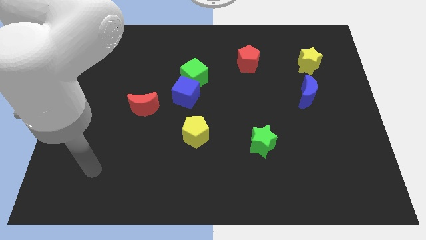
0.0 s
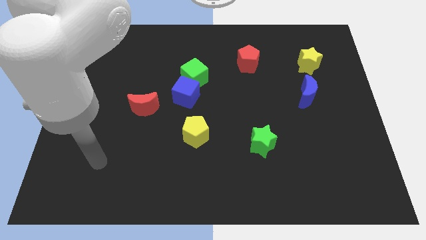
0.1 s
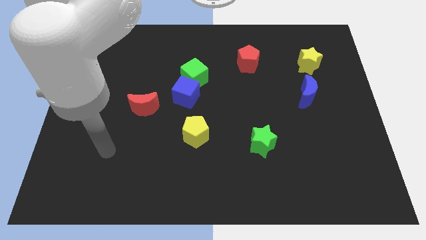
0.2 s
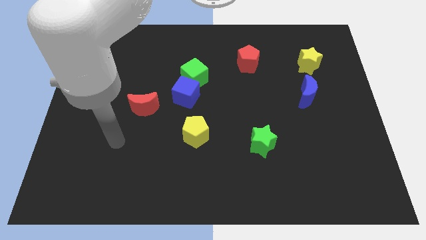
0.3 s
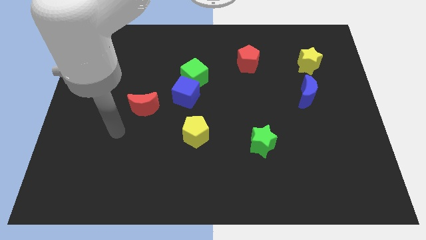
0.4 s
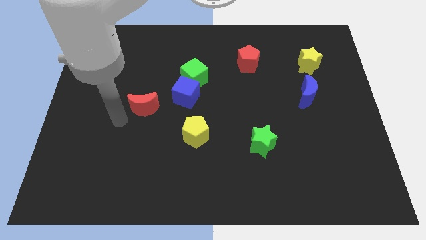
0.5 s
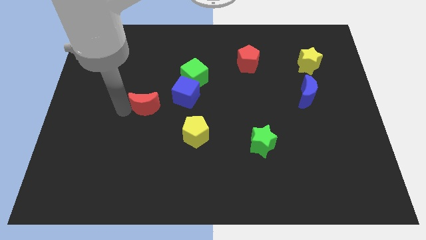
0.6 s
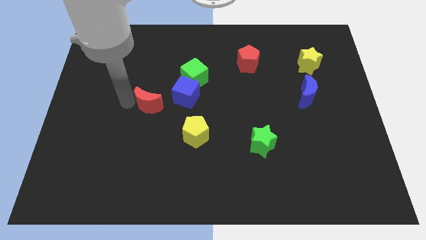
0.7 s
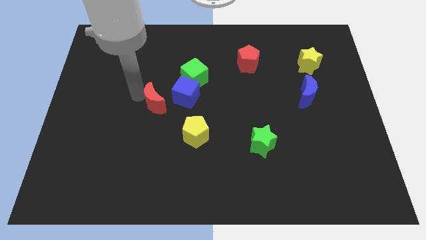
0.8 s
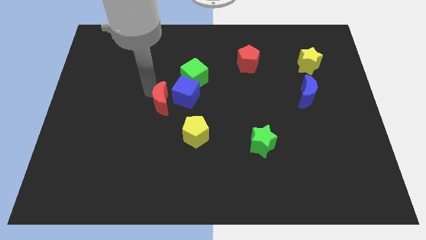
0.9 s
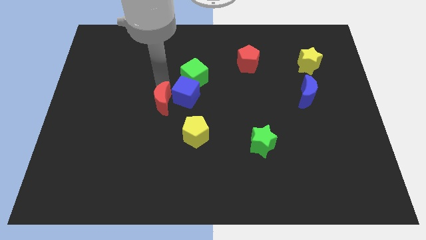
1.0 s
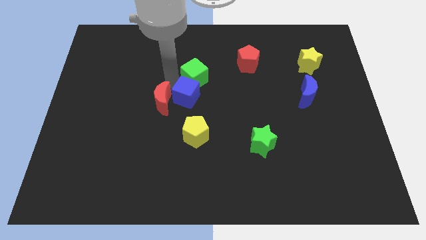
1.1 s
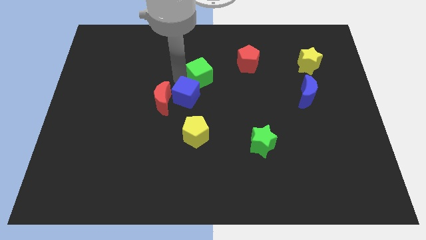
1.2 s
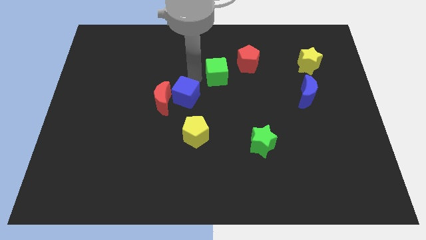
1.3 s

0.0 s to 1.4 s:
separate the blue cube from the green cube

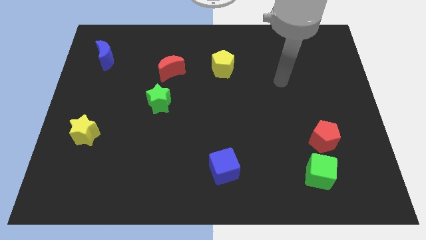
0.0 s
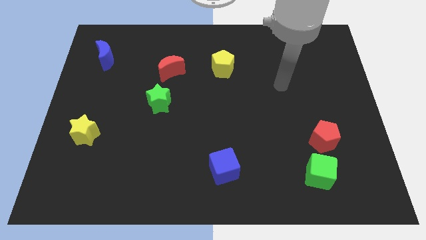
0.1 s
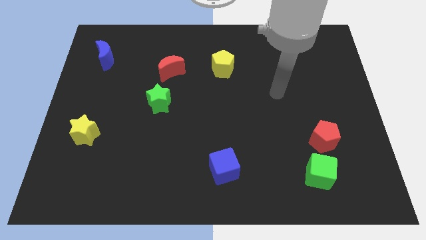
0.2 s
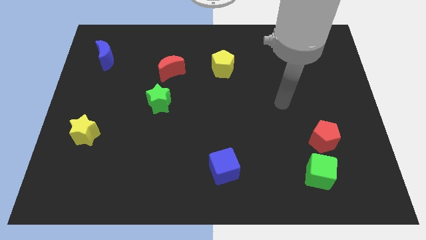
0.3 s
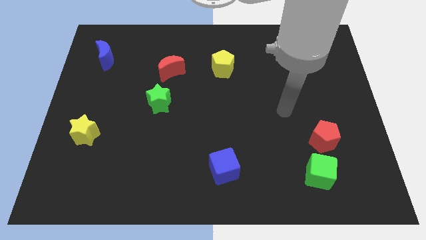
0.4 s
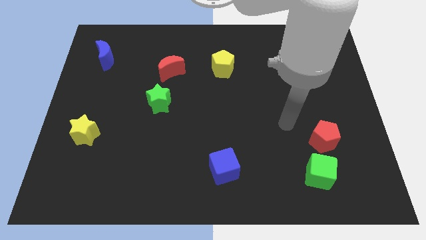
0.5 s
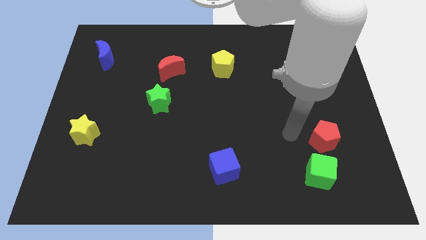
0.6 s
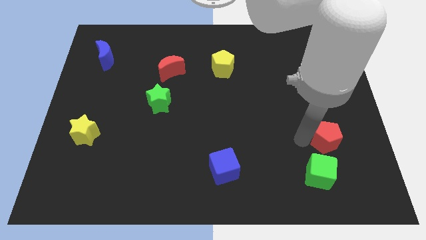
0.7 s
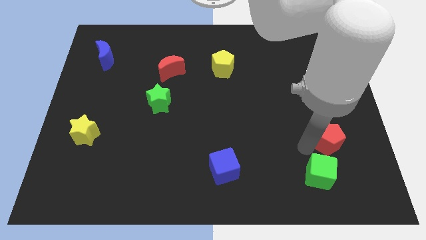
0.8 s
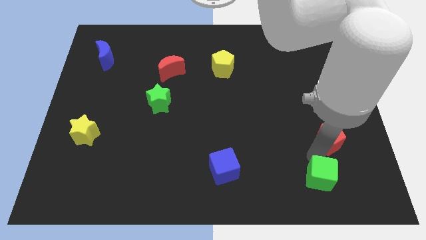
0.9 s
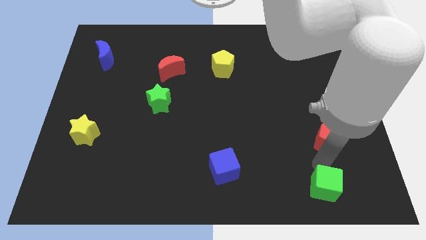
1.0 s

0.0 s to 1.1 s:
pull the red pentagon apart from the green cube

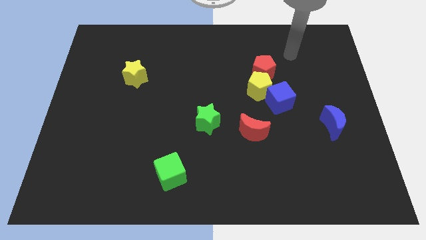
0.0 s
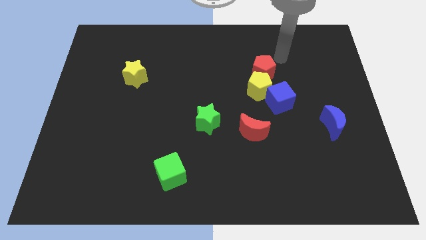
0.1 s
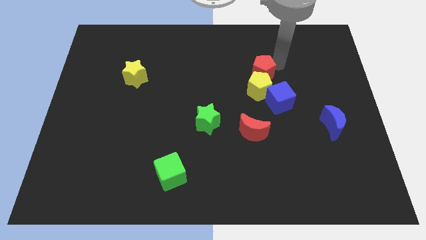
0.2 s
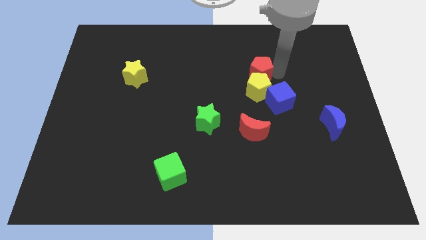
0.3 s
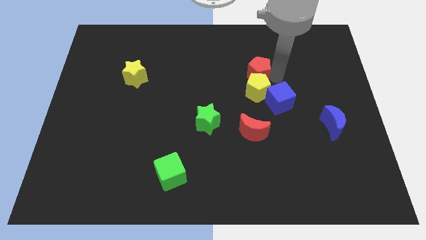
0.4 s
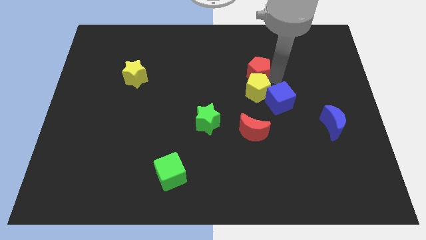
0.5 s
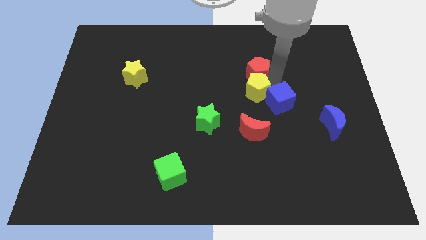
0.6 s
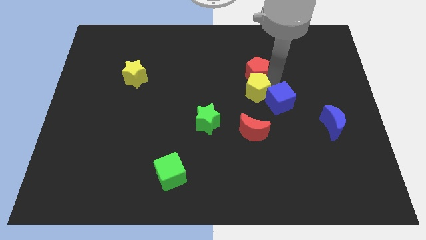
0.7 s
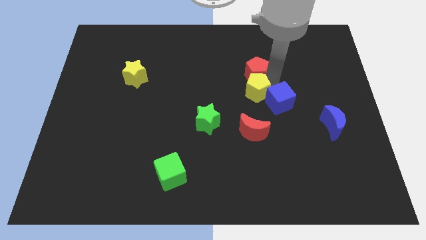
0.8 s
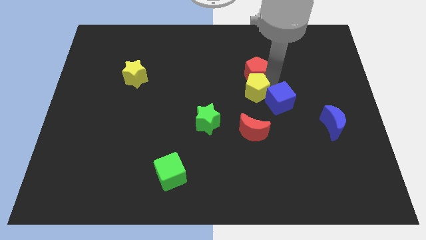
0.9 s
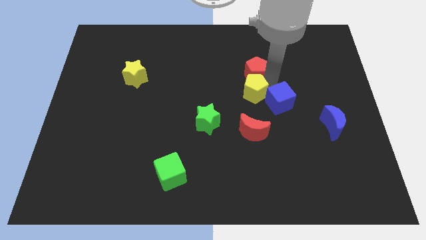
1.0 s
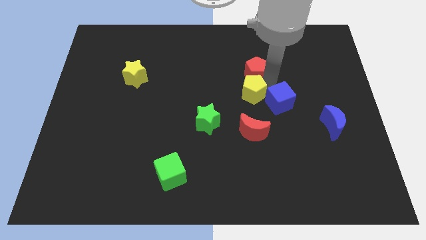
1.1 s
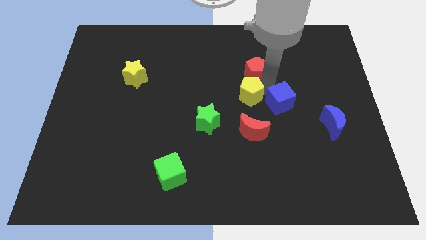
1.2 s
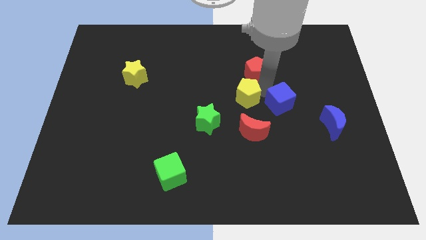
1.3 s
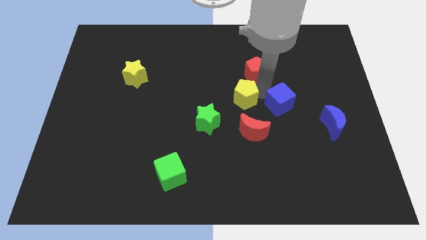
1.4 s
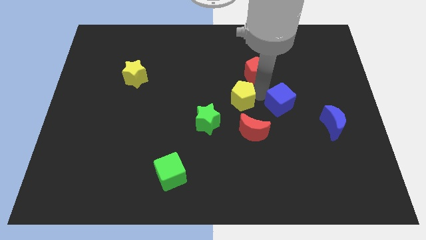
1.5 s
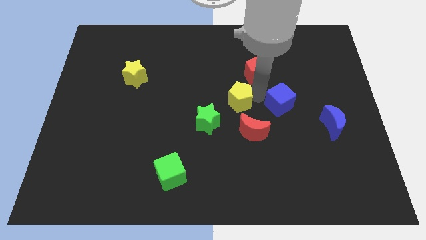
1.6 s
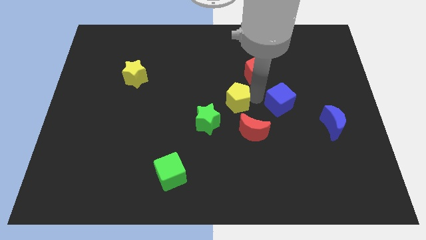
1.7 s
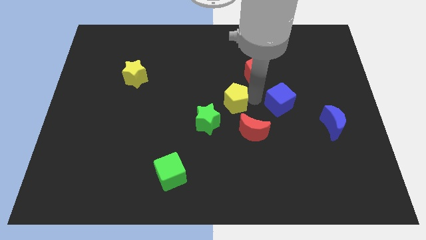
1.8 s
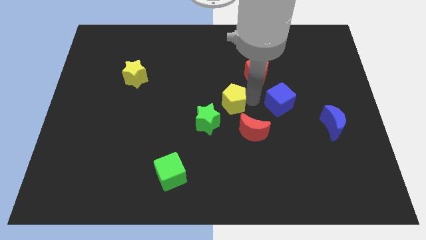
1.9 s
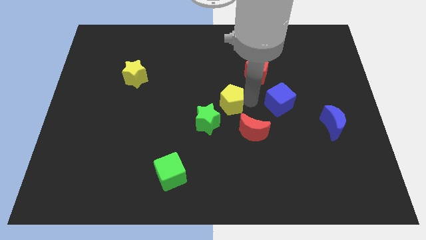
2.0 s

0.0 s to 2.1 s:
move the yellow pentagon away from the blue cube and red pentagon

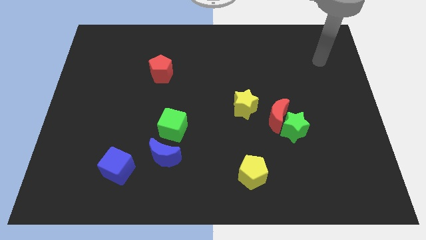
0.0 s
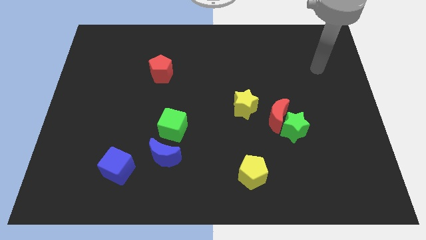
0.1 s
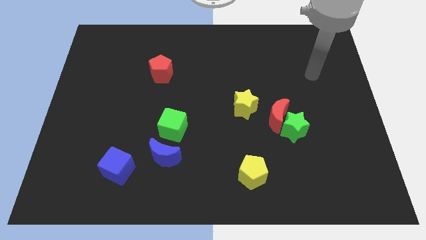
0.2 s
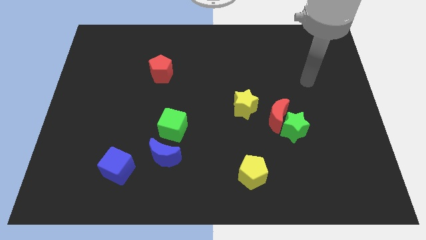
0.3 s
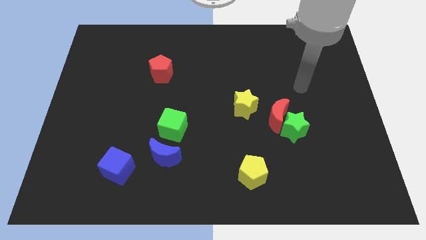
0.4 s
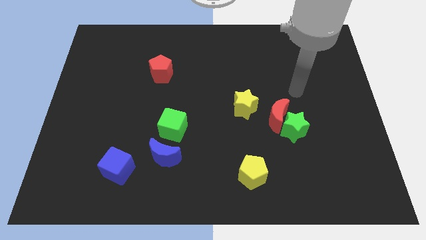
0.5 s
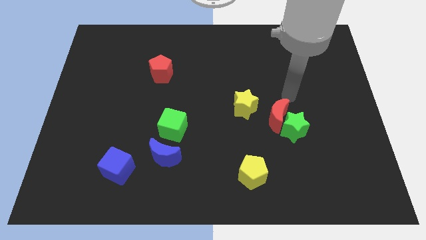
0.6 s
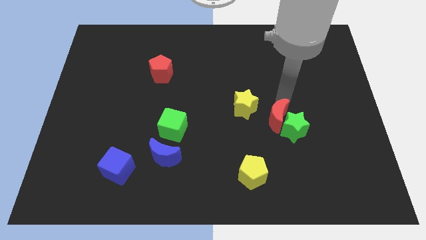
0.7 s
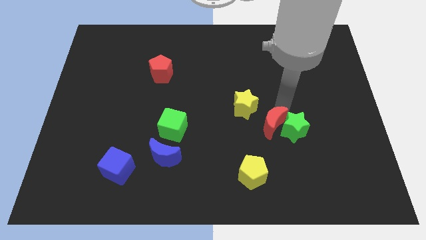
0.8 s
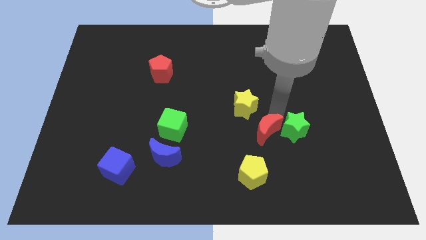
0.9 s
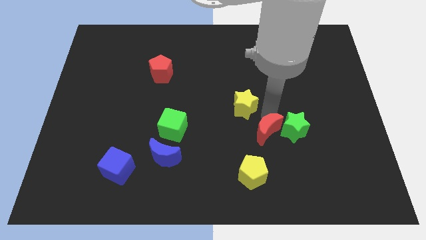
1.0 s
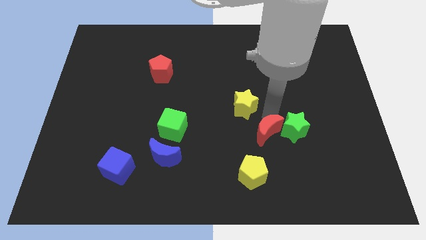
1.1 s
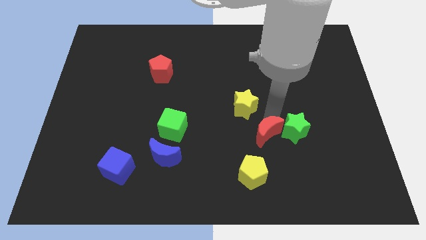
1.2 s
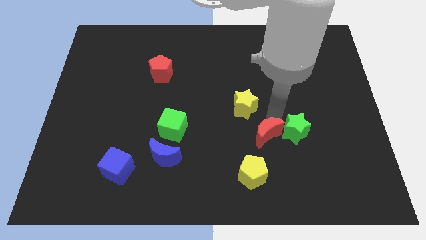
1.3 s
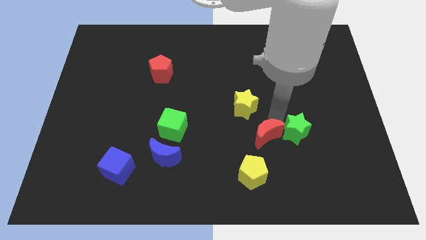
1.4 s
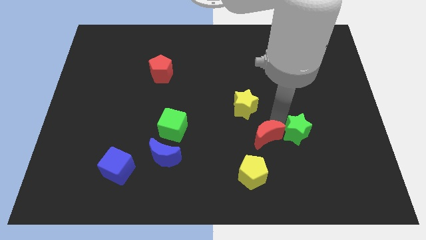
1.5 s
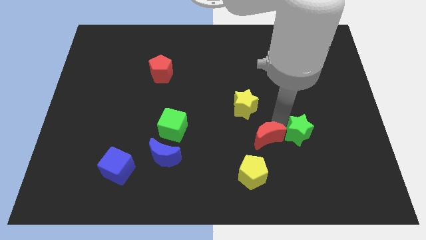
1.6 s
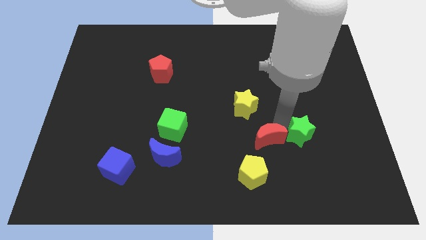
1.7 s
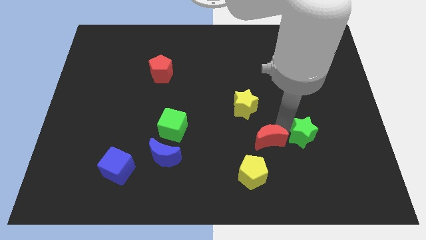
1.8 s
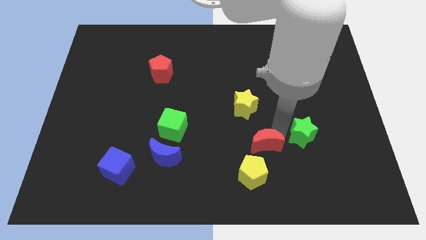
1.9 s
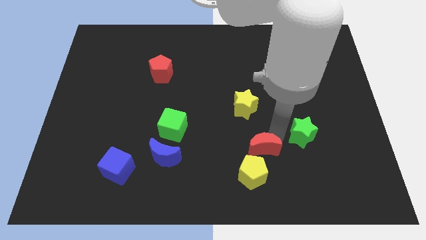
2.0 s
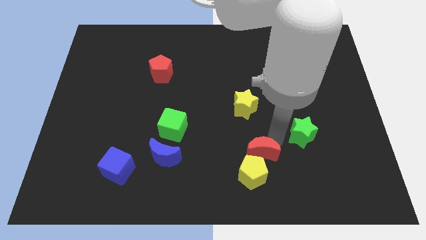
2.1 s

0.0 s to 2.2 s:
pull the green star apart from the red moon

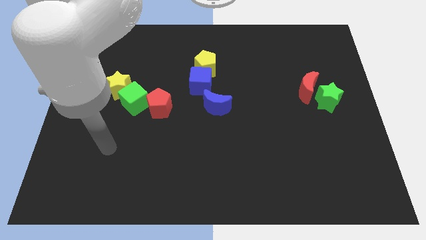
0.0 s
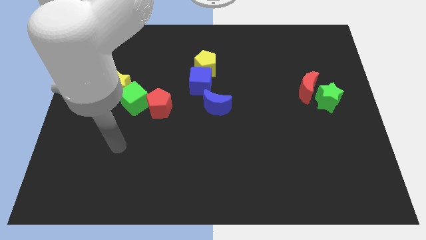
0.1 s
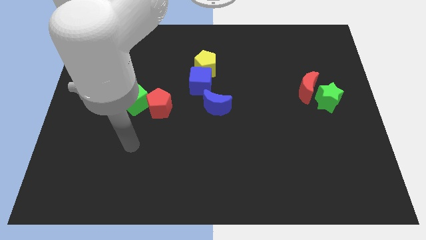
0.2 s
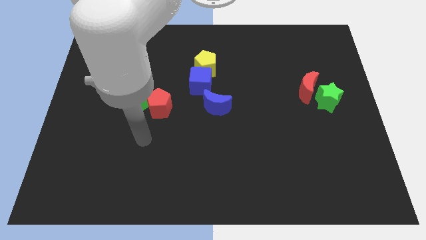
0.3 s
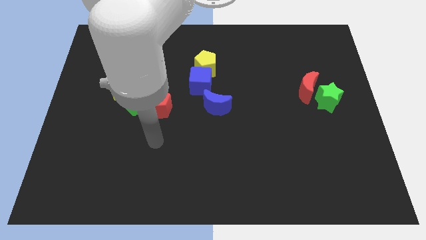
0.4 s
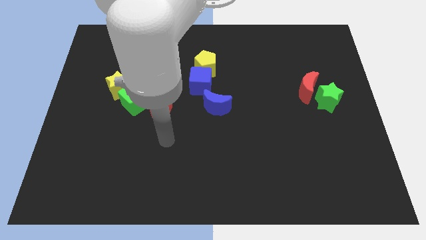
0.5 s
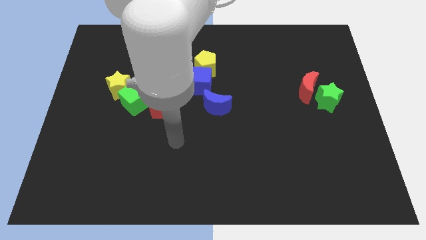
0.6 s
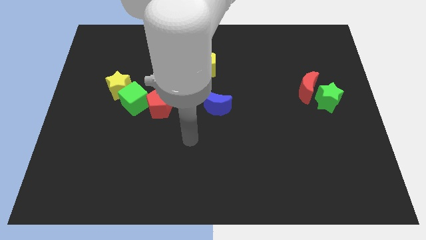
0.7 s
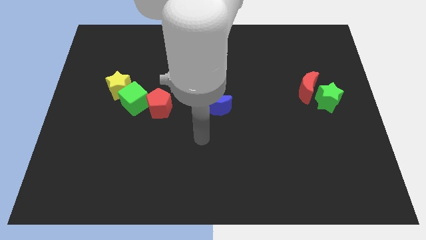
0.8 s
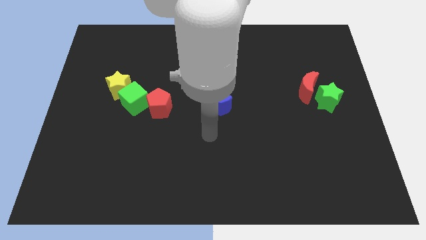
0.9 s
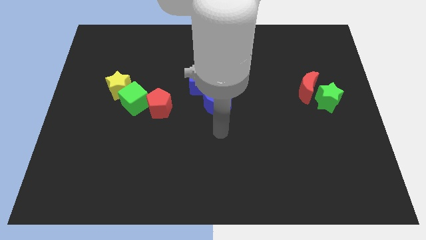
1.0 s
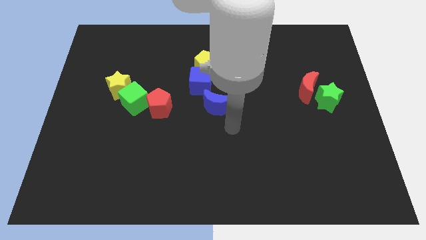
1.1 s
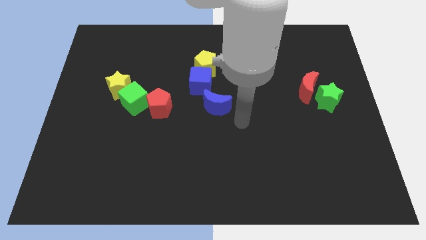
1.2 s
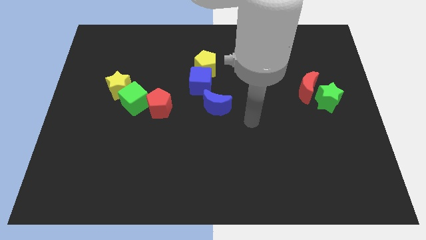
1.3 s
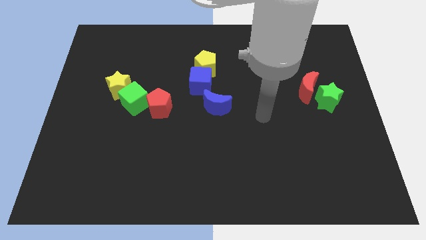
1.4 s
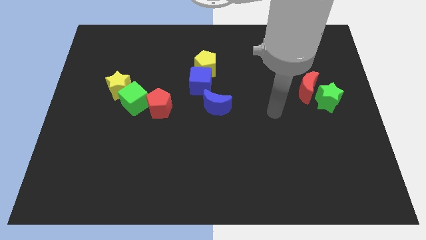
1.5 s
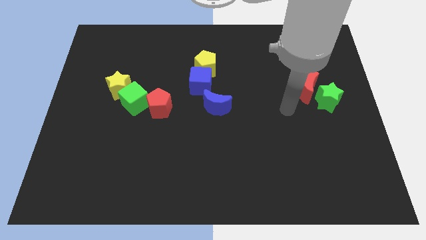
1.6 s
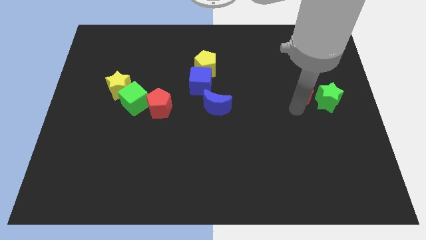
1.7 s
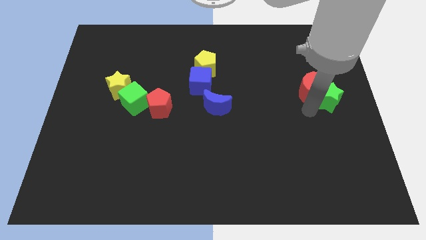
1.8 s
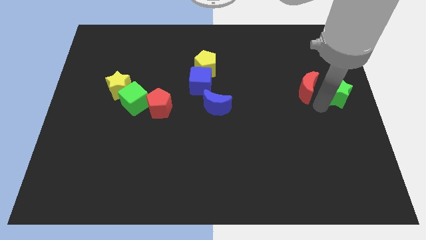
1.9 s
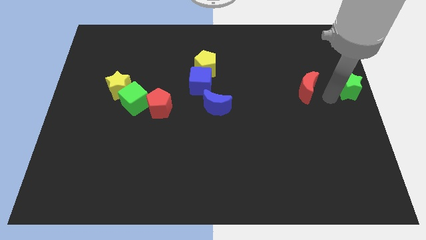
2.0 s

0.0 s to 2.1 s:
move the red moon away from the green star

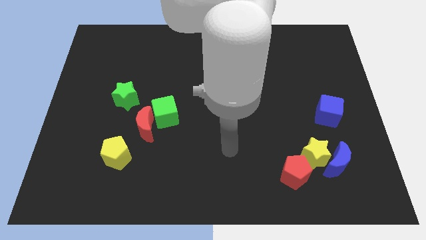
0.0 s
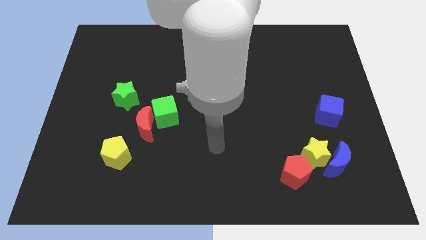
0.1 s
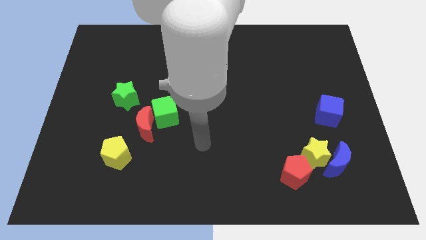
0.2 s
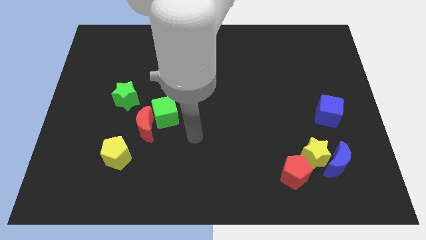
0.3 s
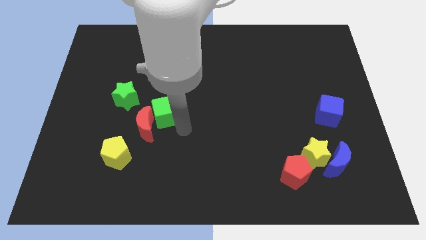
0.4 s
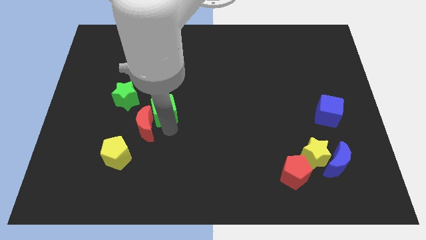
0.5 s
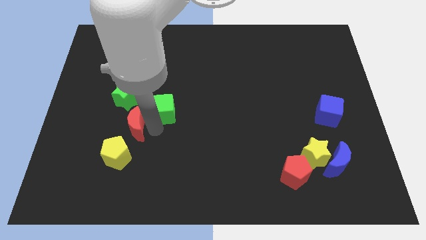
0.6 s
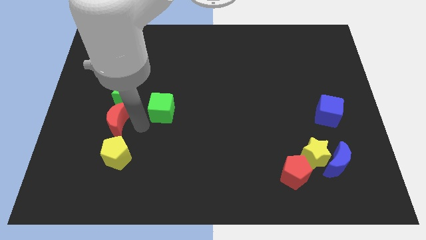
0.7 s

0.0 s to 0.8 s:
pull the green cube apart from the red moon
